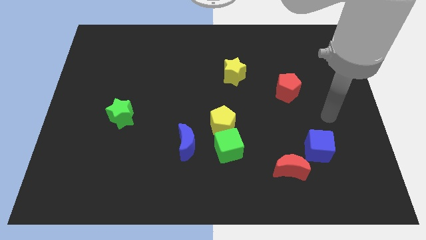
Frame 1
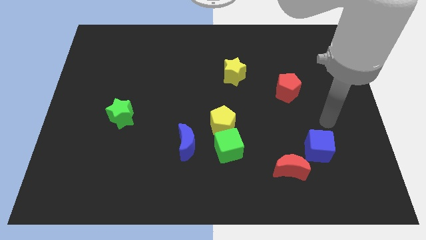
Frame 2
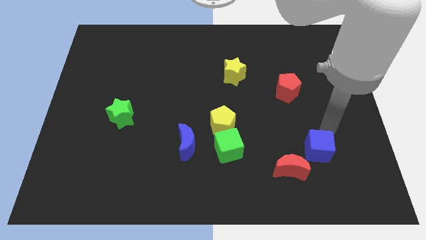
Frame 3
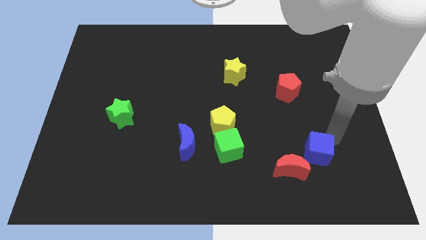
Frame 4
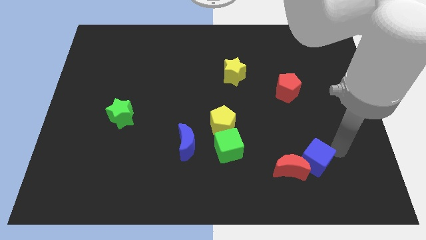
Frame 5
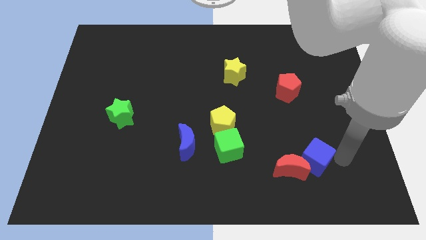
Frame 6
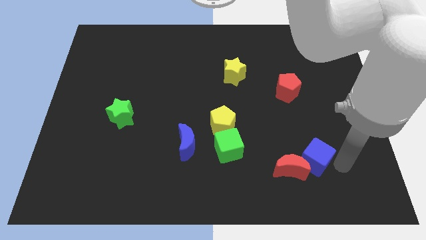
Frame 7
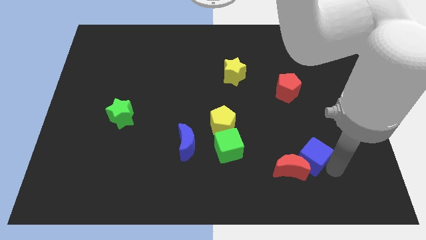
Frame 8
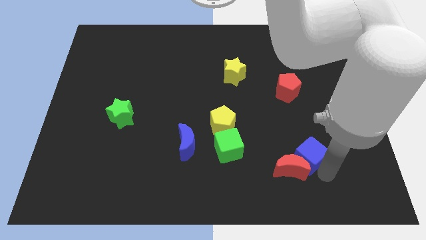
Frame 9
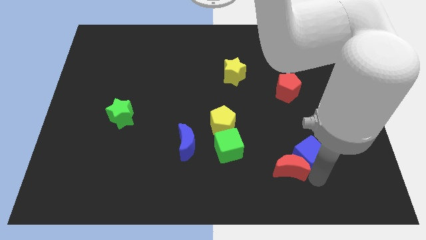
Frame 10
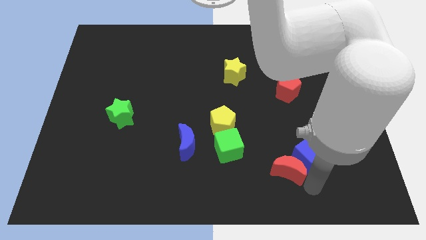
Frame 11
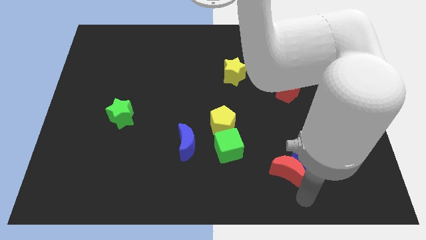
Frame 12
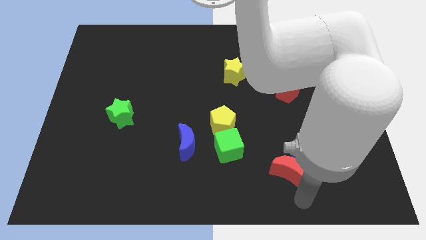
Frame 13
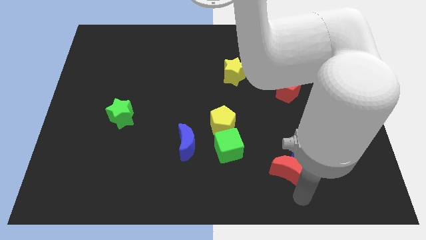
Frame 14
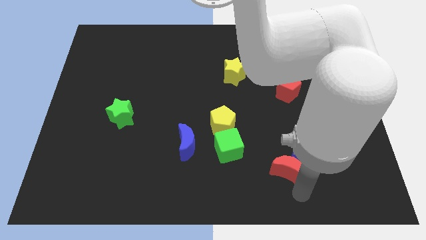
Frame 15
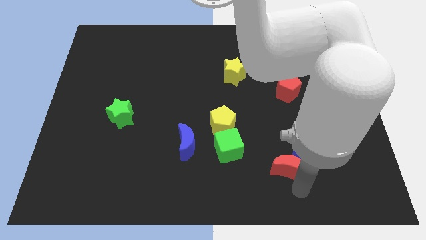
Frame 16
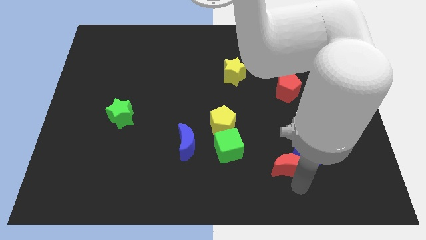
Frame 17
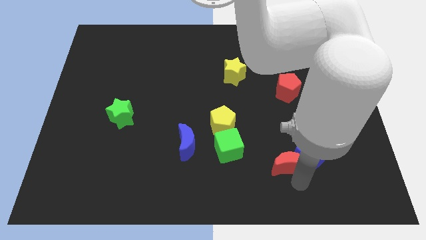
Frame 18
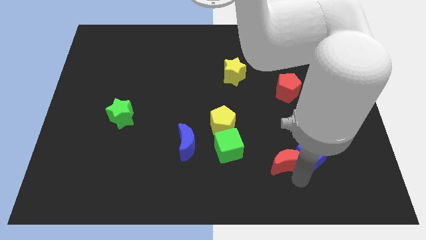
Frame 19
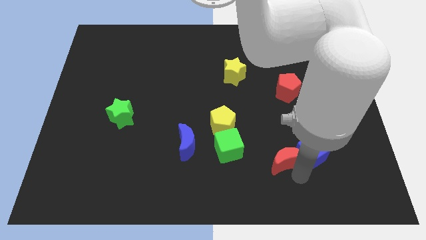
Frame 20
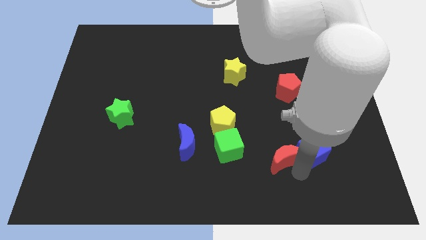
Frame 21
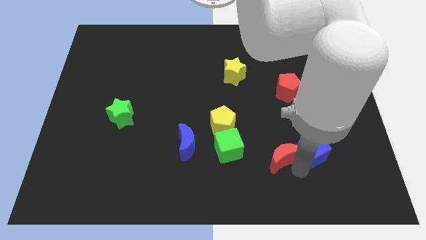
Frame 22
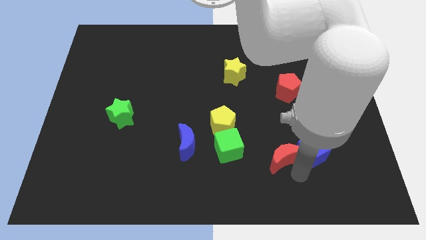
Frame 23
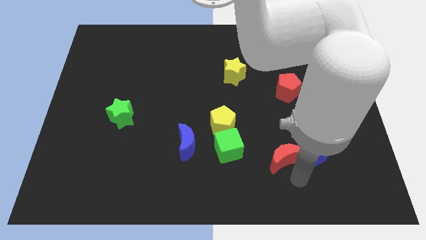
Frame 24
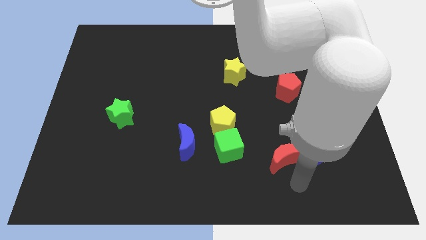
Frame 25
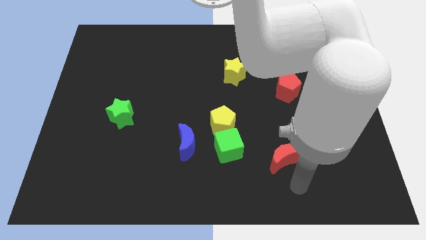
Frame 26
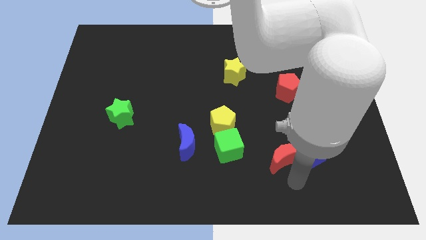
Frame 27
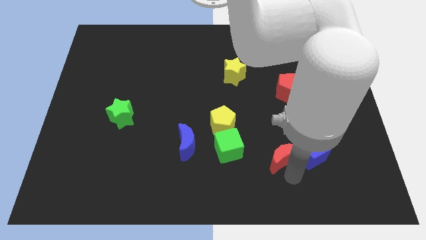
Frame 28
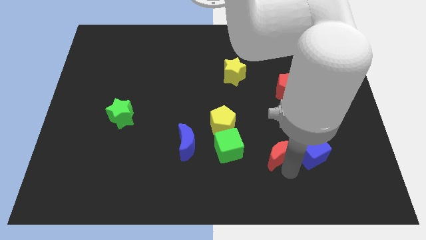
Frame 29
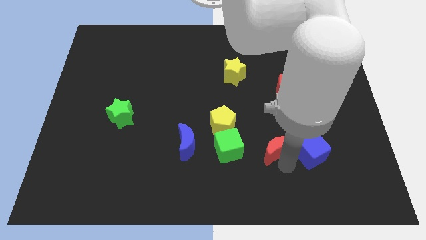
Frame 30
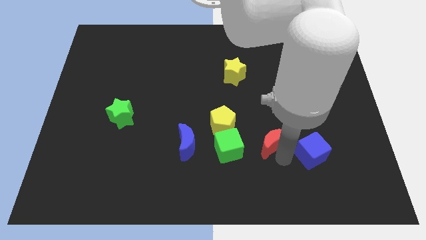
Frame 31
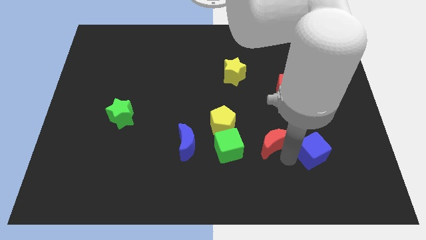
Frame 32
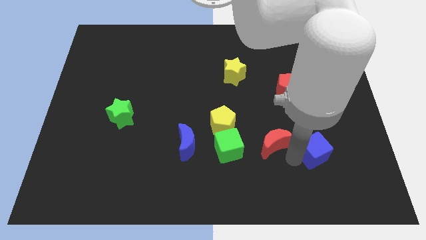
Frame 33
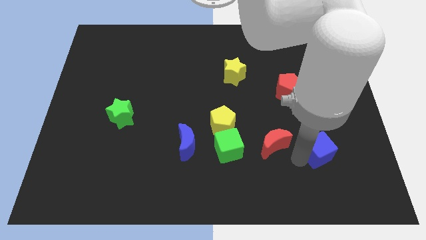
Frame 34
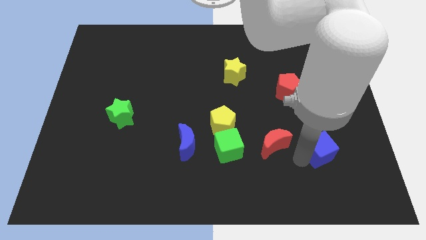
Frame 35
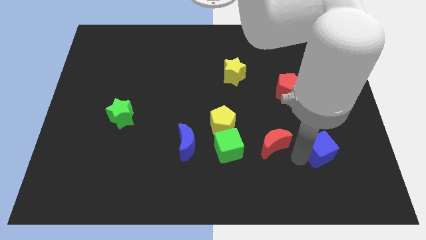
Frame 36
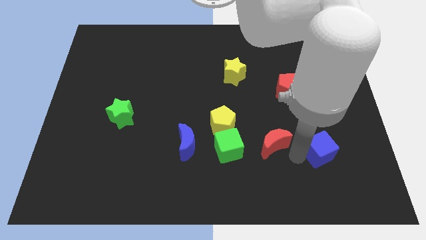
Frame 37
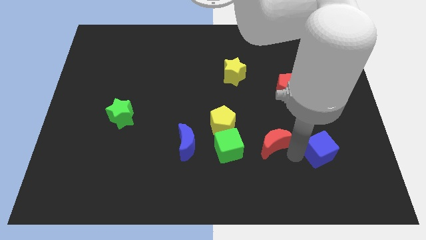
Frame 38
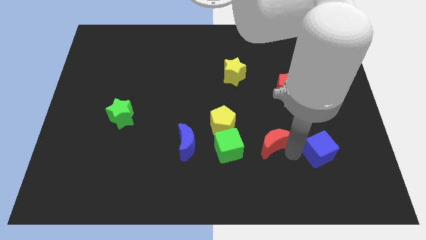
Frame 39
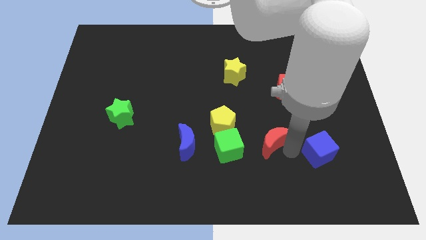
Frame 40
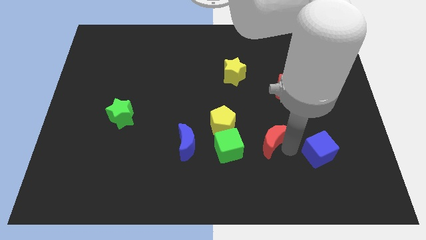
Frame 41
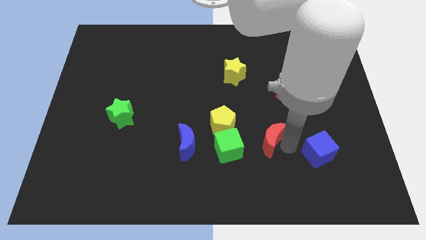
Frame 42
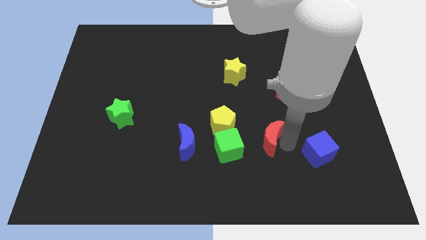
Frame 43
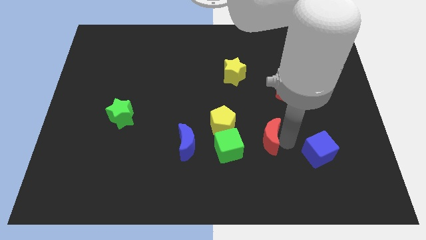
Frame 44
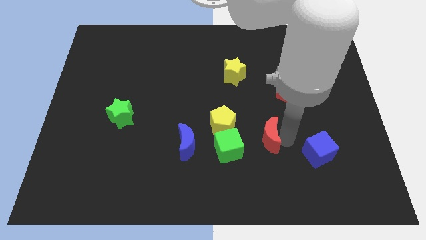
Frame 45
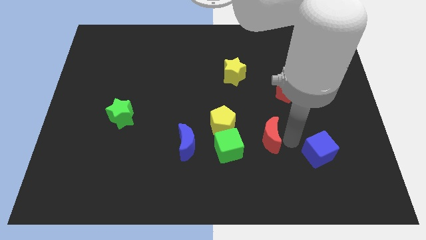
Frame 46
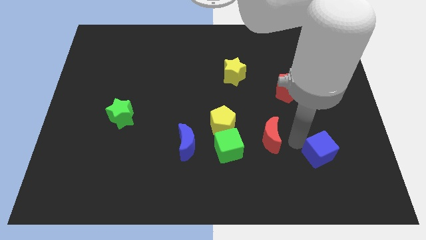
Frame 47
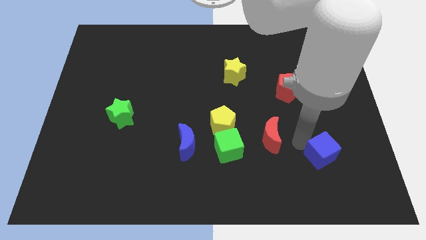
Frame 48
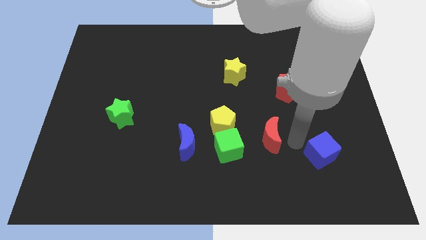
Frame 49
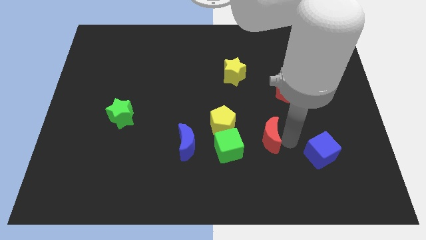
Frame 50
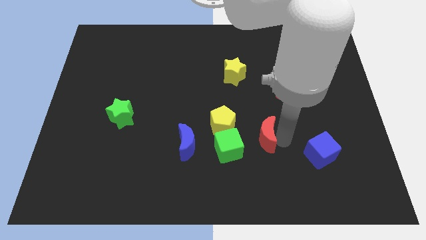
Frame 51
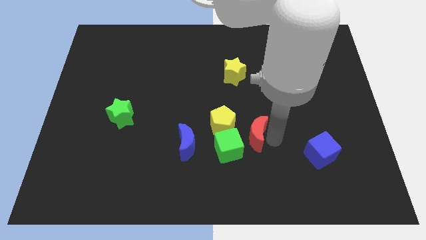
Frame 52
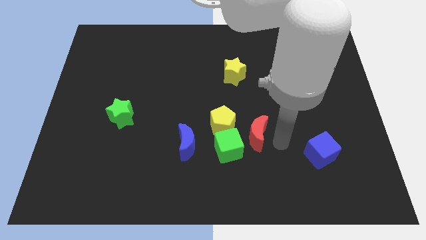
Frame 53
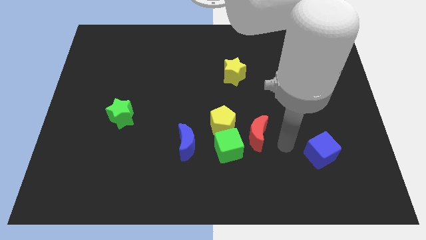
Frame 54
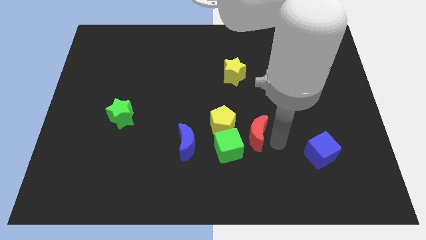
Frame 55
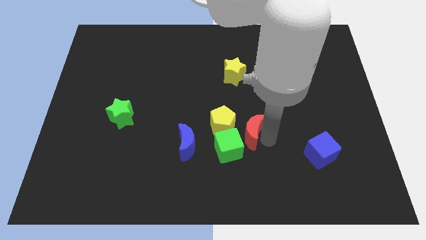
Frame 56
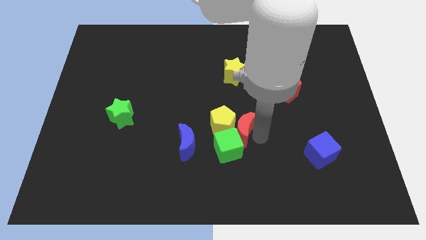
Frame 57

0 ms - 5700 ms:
move the red moon to the yellow pentagon

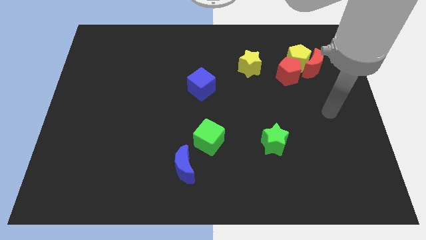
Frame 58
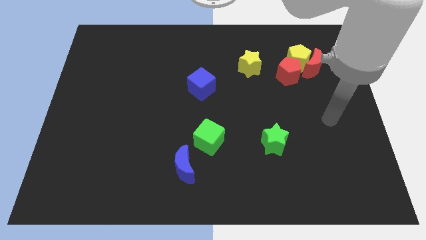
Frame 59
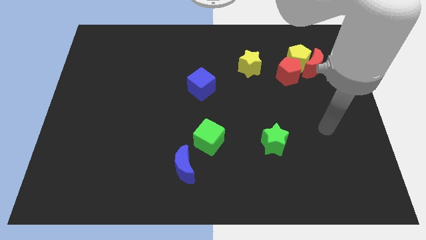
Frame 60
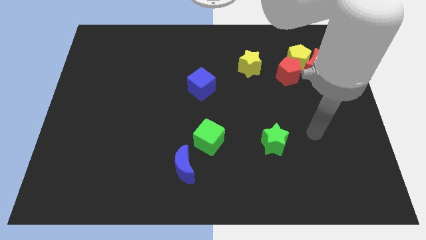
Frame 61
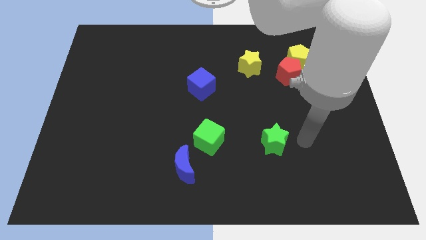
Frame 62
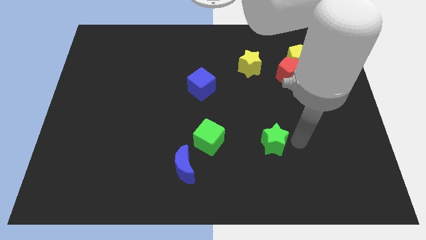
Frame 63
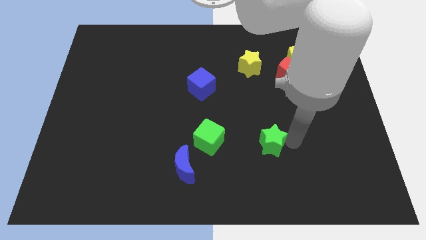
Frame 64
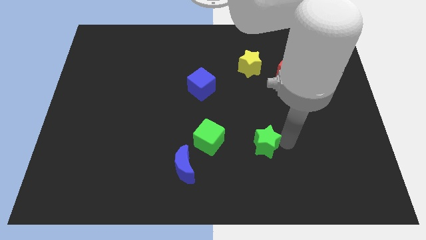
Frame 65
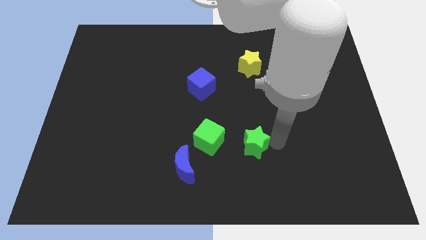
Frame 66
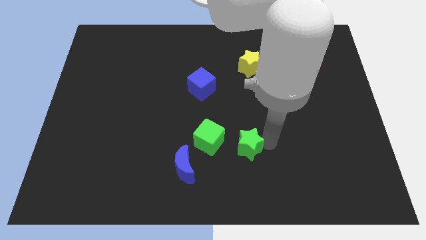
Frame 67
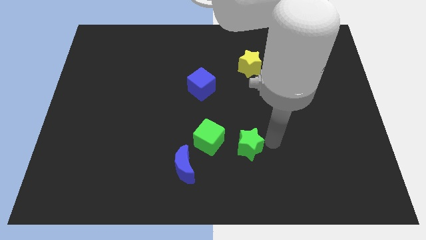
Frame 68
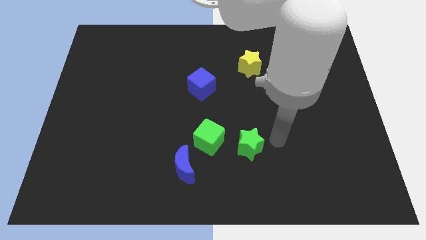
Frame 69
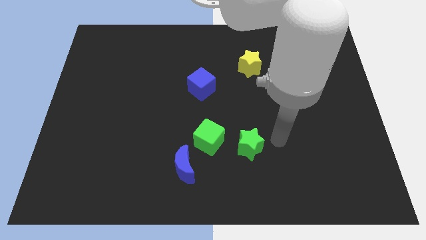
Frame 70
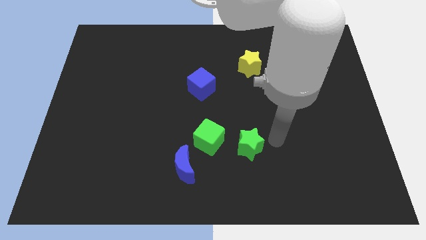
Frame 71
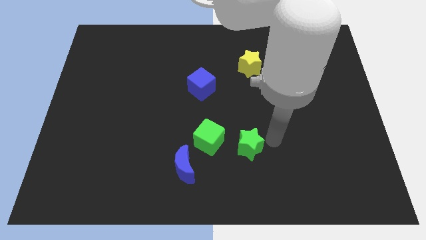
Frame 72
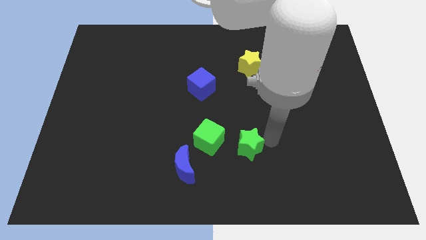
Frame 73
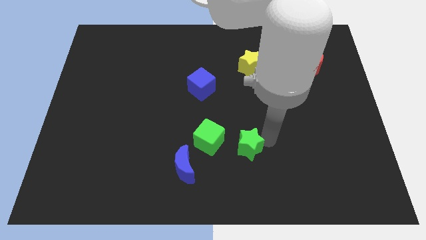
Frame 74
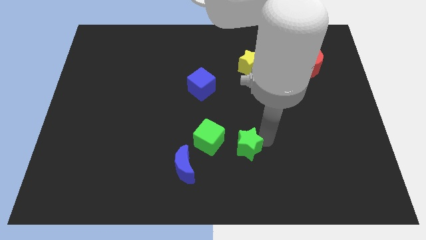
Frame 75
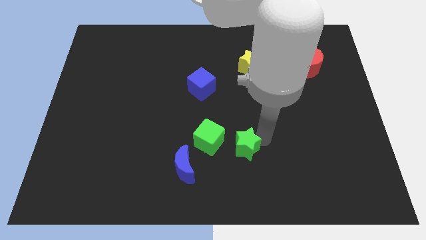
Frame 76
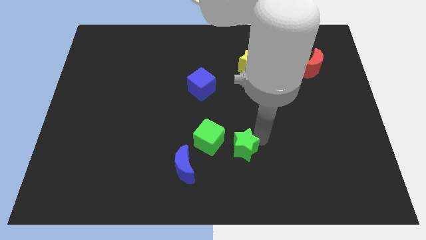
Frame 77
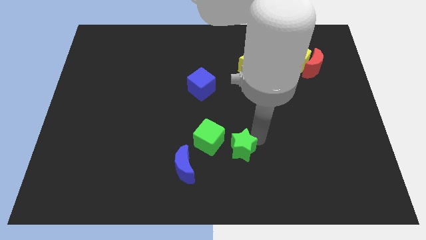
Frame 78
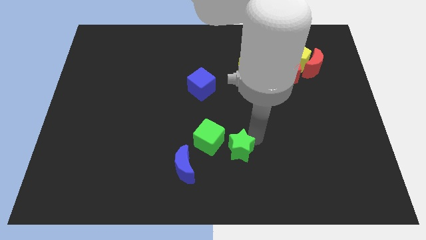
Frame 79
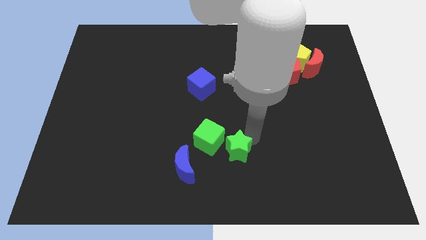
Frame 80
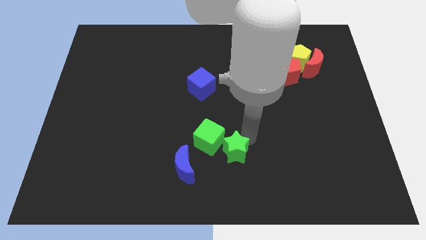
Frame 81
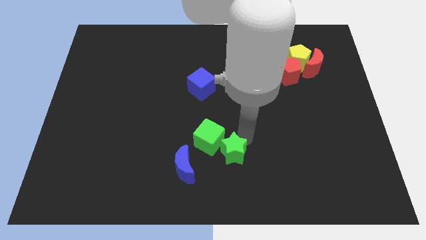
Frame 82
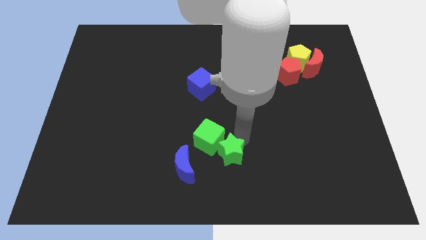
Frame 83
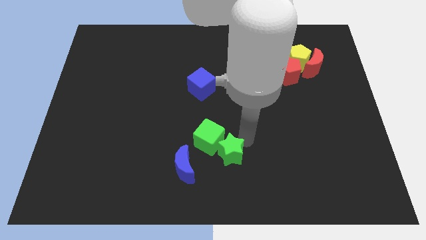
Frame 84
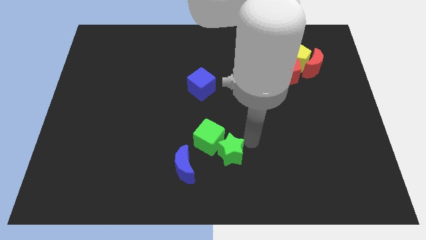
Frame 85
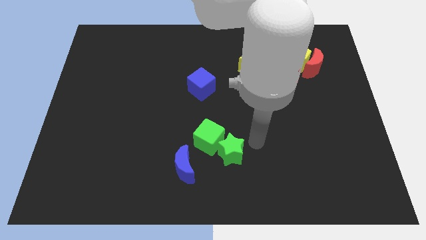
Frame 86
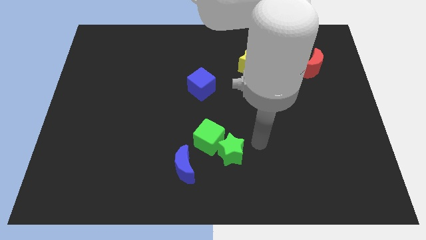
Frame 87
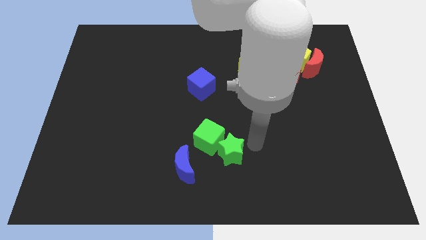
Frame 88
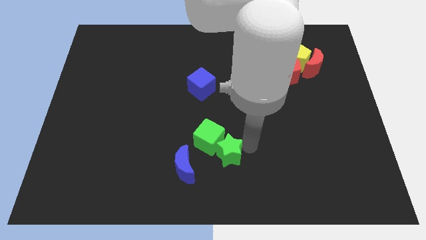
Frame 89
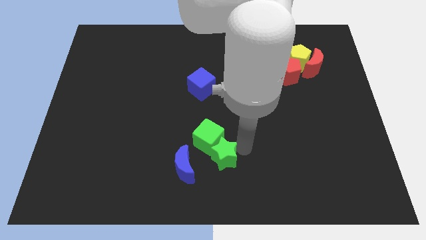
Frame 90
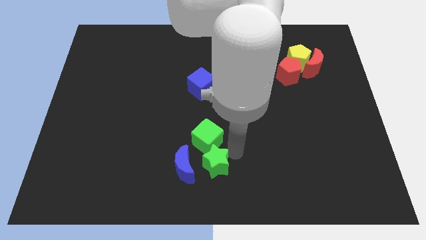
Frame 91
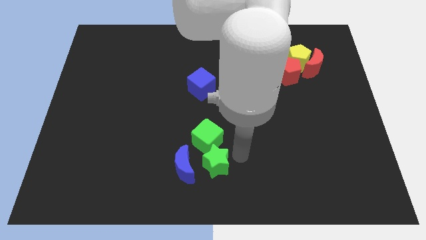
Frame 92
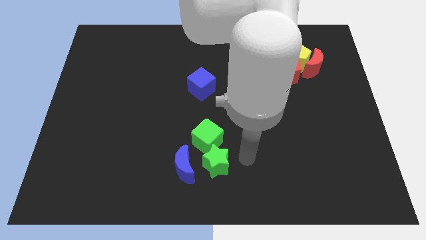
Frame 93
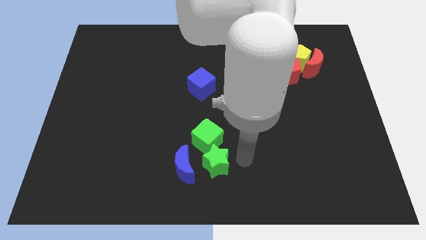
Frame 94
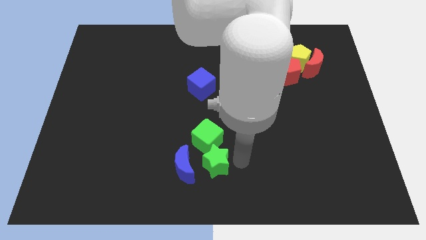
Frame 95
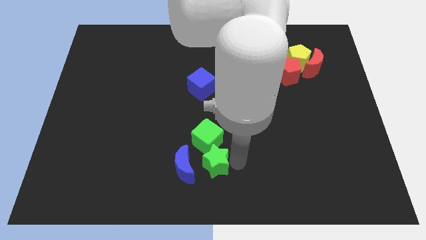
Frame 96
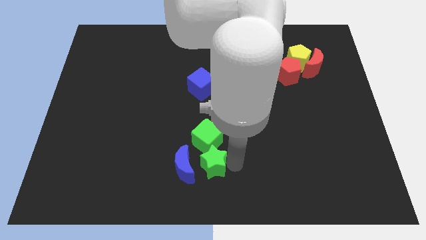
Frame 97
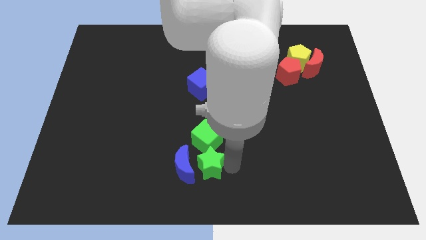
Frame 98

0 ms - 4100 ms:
move the green star to the blue moon
